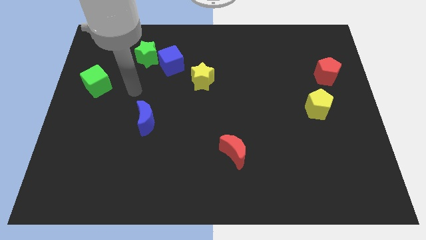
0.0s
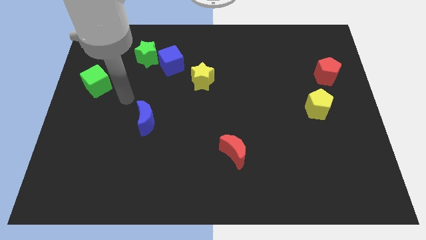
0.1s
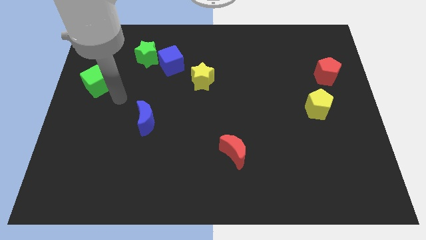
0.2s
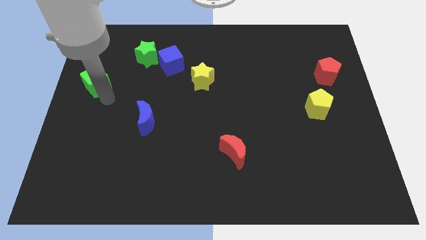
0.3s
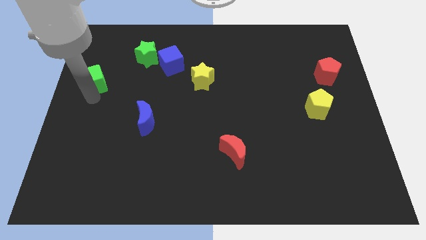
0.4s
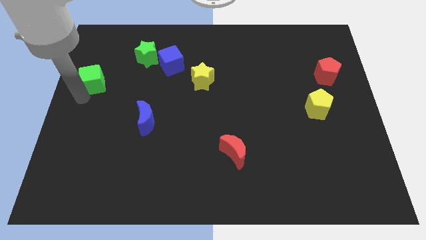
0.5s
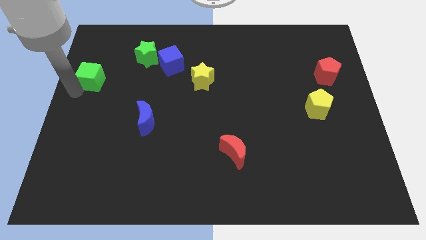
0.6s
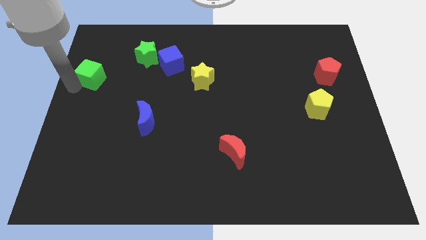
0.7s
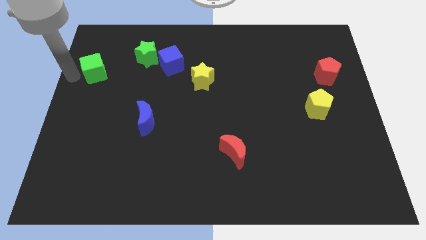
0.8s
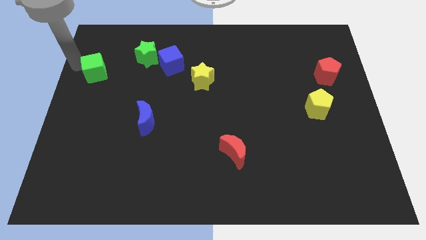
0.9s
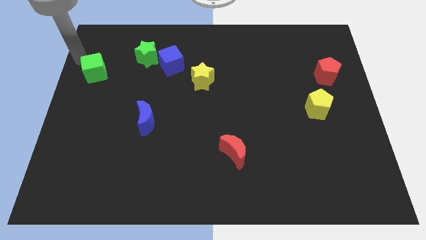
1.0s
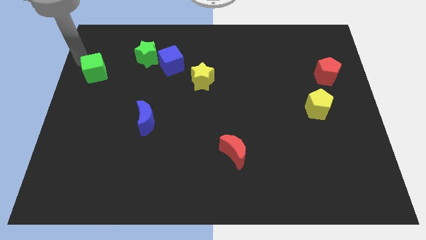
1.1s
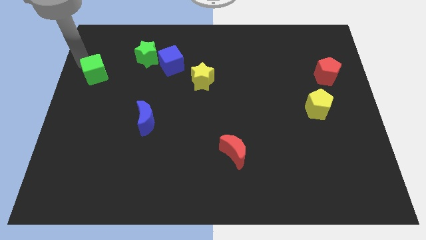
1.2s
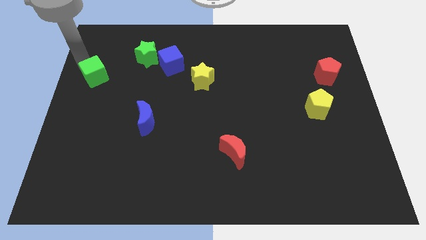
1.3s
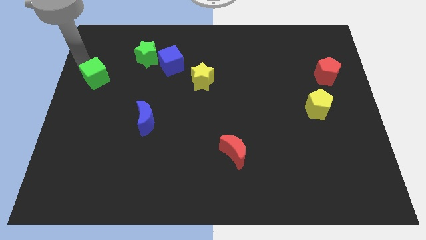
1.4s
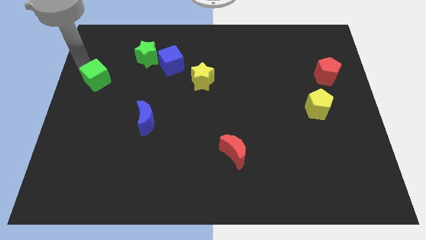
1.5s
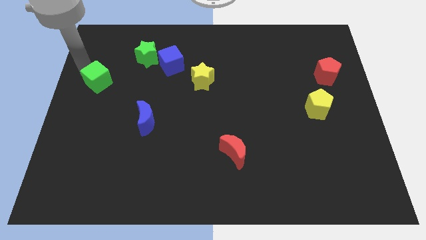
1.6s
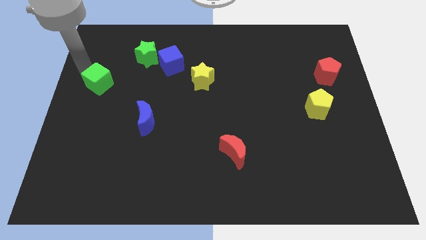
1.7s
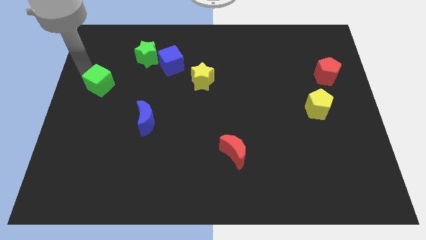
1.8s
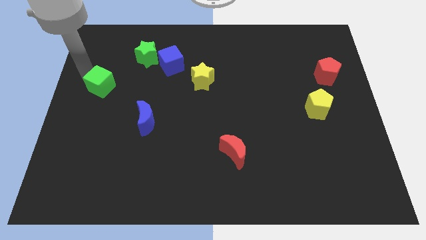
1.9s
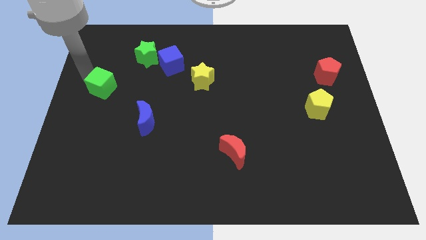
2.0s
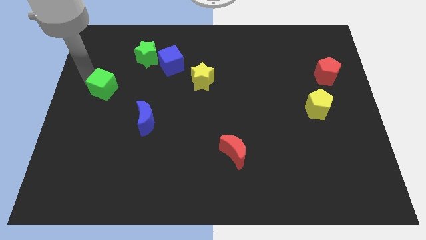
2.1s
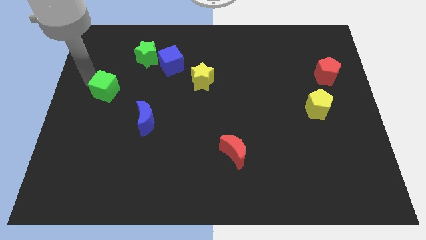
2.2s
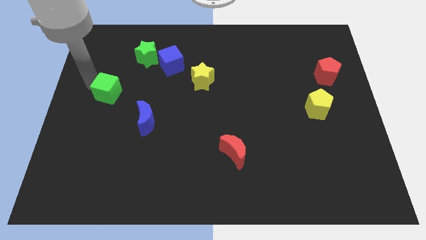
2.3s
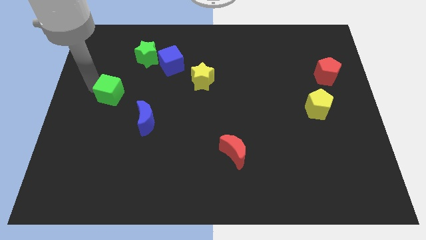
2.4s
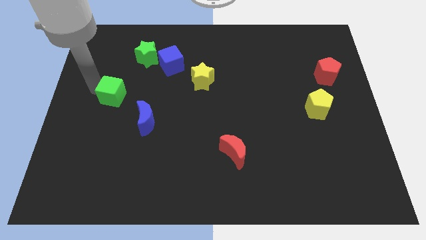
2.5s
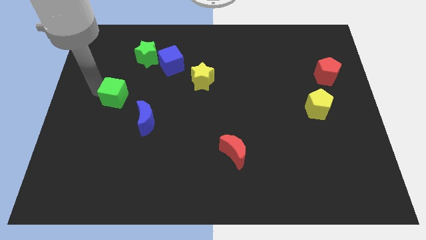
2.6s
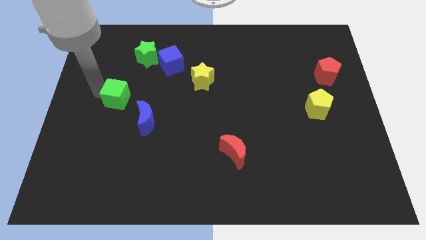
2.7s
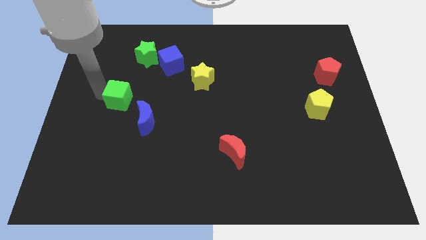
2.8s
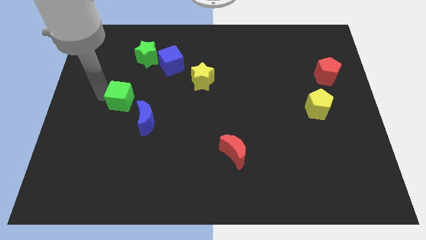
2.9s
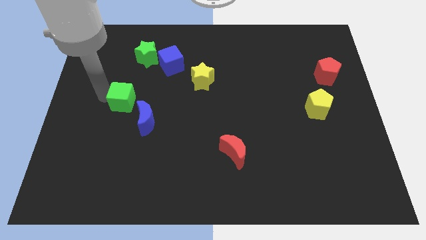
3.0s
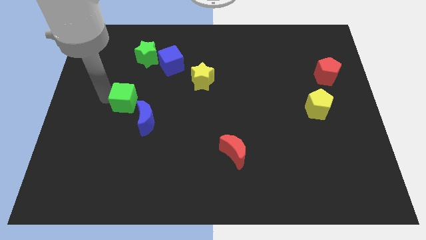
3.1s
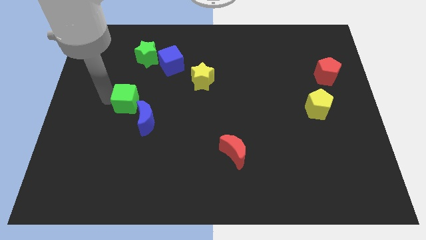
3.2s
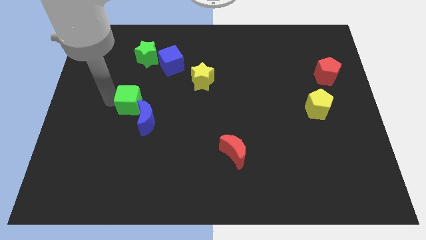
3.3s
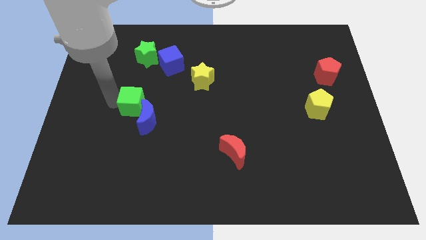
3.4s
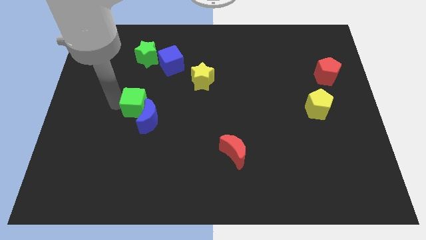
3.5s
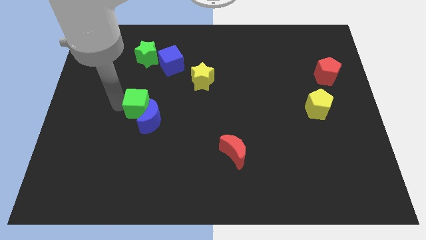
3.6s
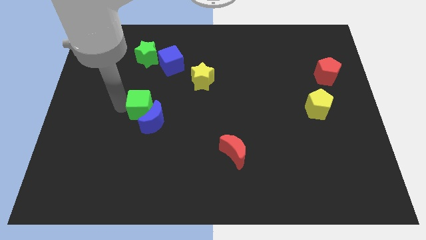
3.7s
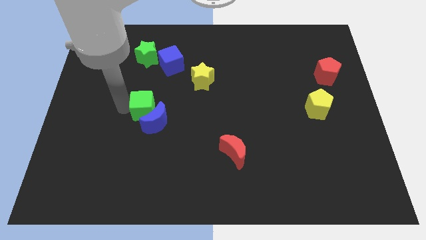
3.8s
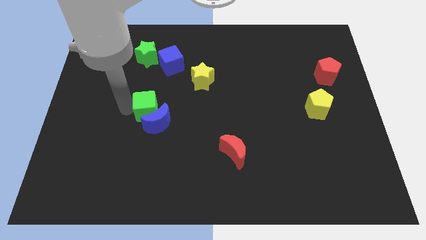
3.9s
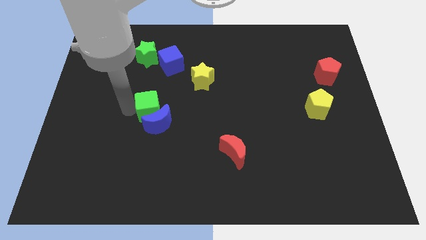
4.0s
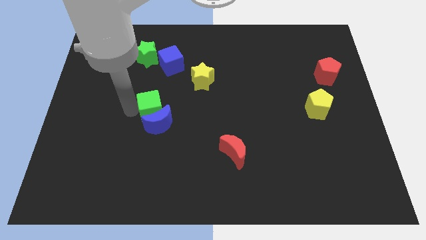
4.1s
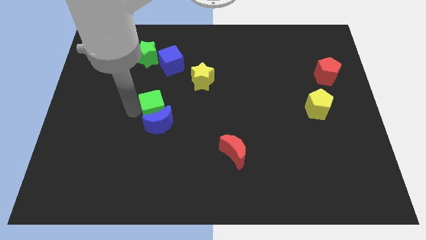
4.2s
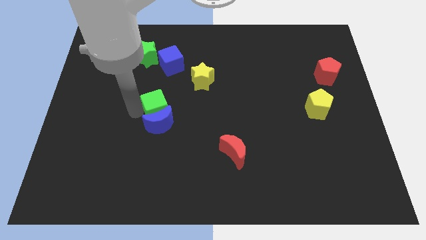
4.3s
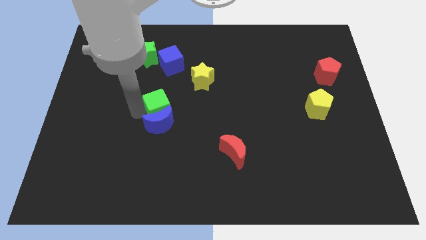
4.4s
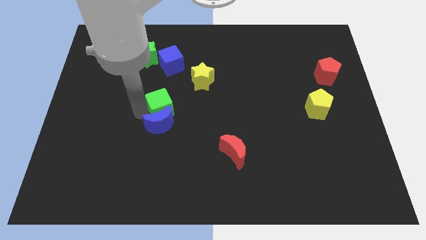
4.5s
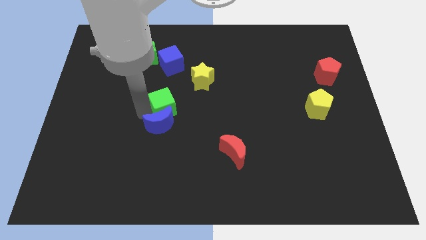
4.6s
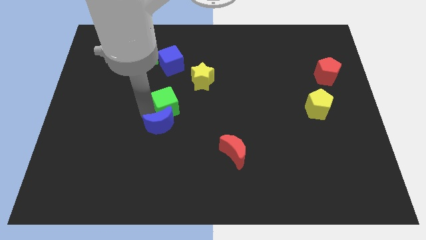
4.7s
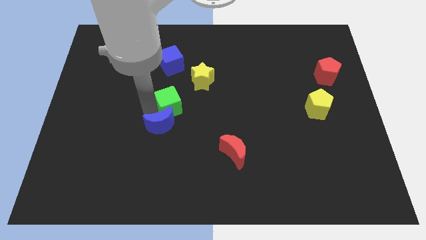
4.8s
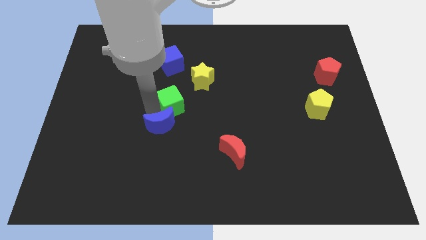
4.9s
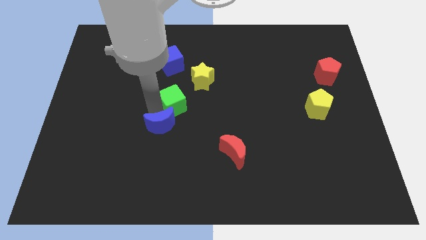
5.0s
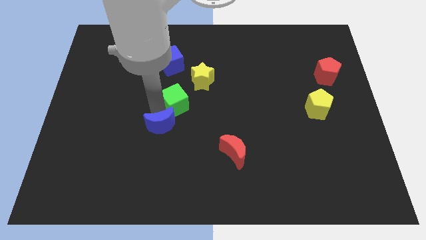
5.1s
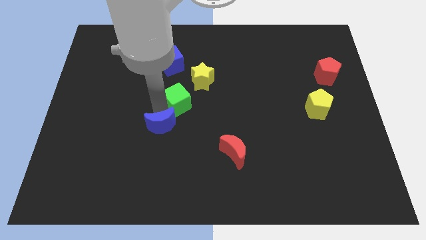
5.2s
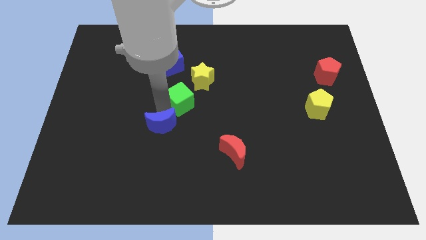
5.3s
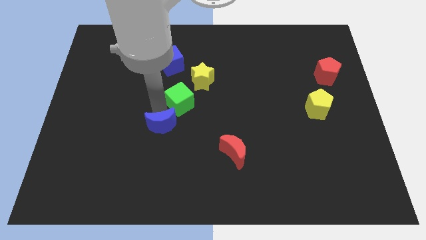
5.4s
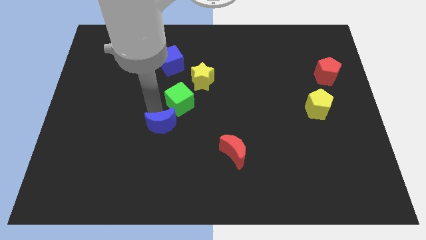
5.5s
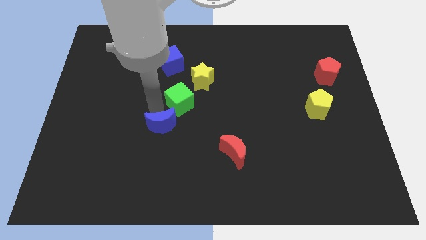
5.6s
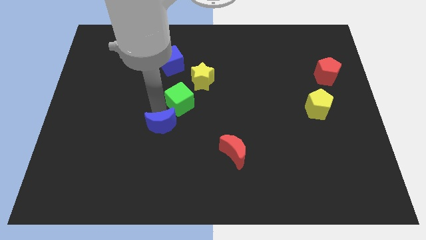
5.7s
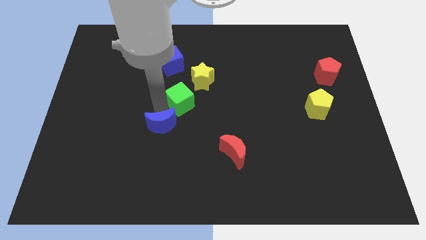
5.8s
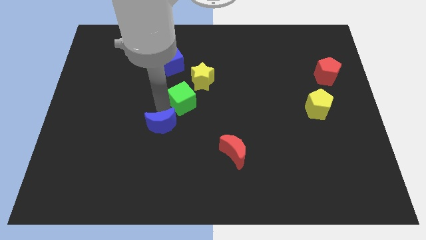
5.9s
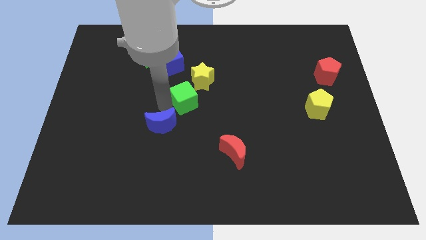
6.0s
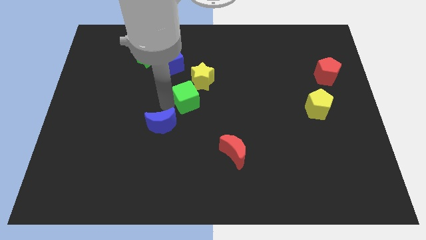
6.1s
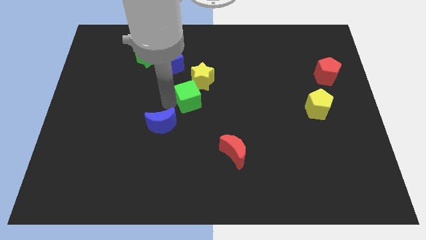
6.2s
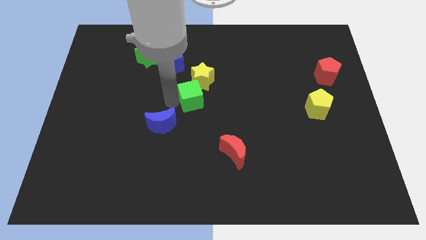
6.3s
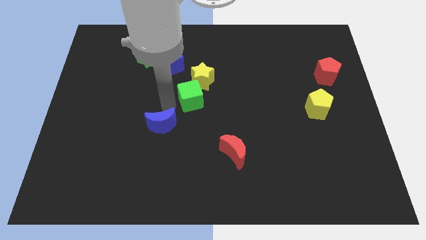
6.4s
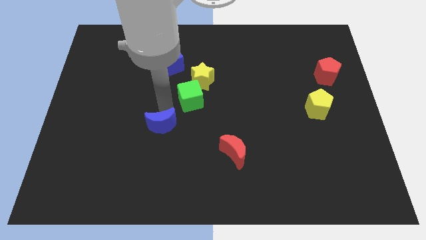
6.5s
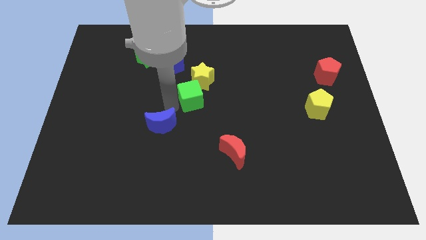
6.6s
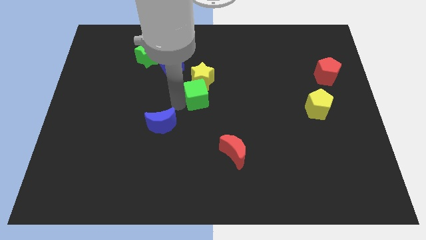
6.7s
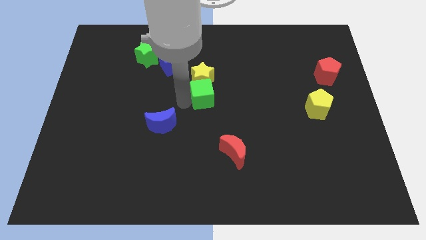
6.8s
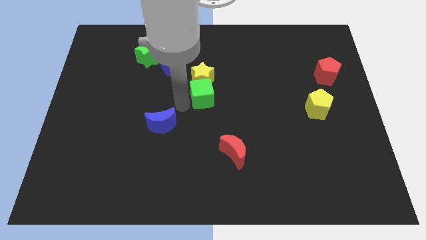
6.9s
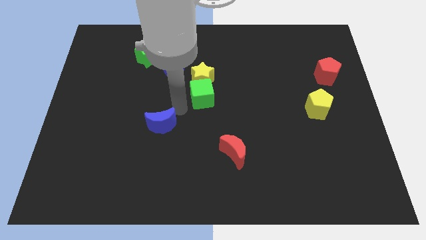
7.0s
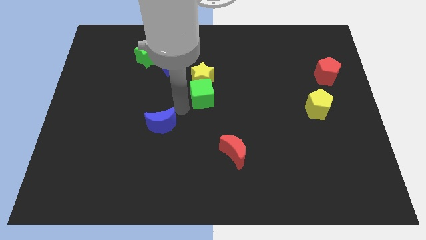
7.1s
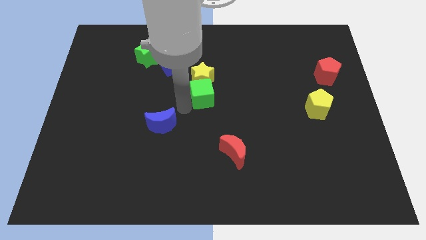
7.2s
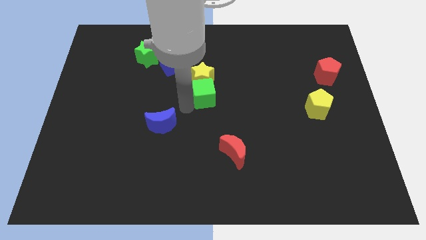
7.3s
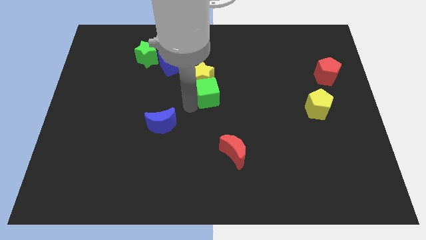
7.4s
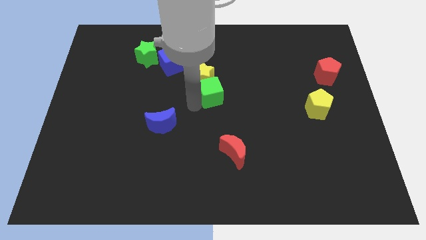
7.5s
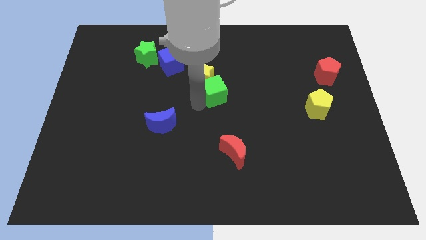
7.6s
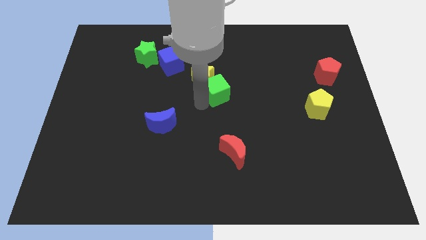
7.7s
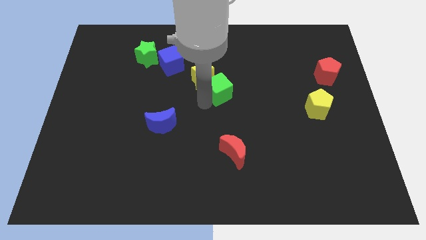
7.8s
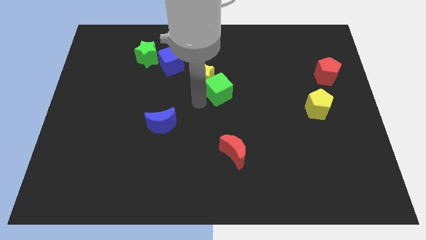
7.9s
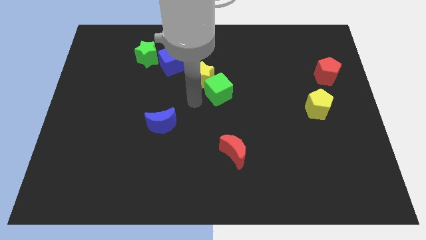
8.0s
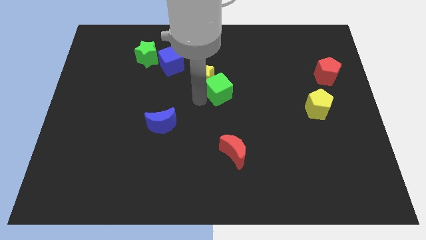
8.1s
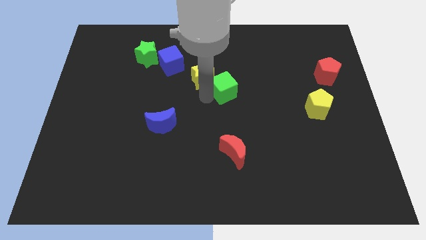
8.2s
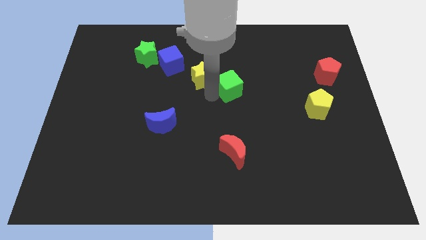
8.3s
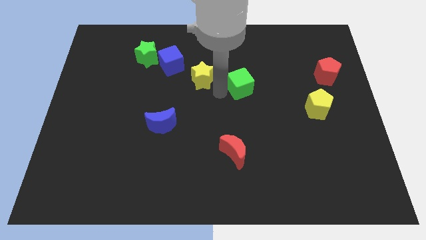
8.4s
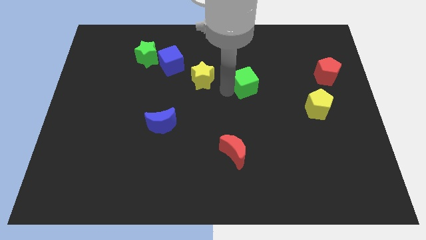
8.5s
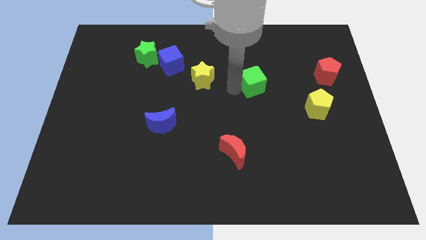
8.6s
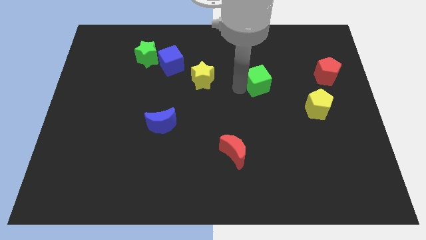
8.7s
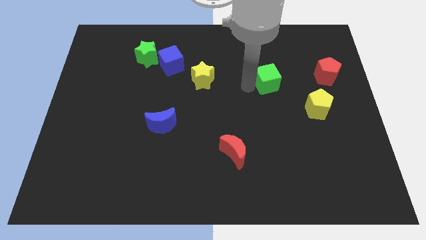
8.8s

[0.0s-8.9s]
put the green cube to the left of the red pentagon
